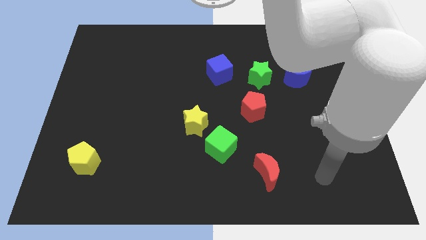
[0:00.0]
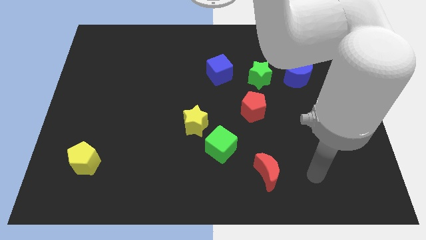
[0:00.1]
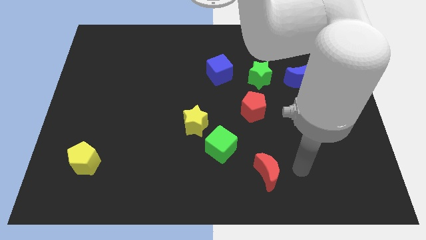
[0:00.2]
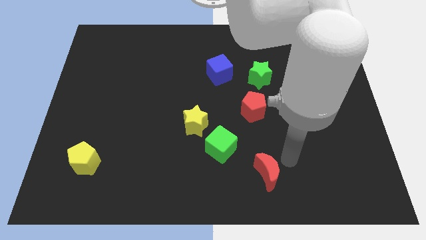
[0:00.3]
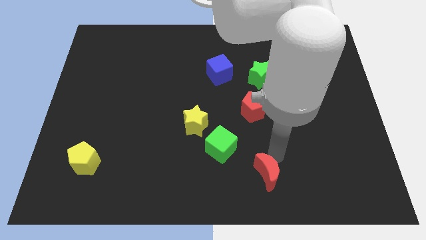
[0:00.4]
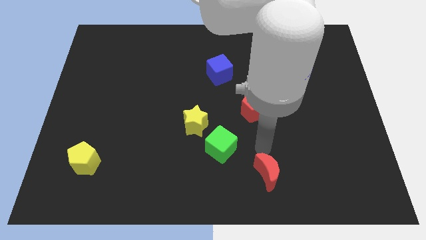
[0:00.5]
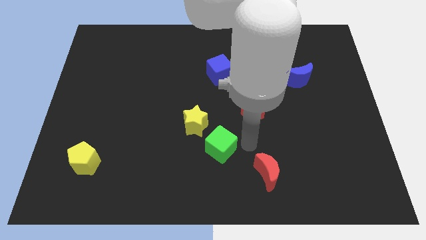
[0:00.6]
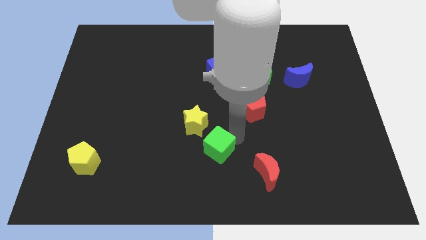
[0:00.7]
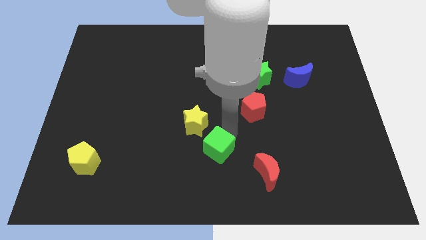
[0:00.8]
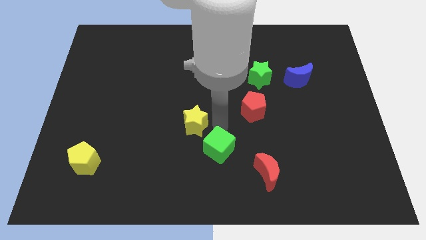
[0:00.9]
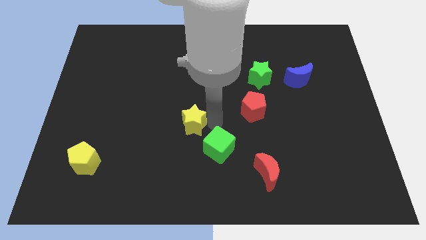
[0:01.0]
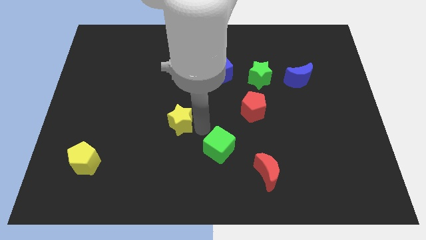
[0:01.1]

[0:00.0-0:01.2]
move the green cube away from the yellow star

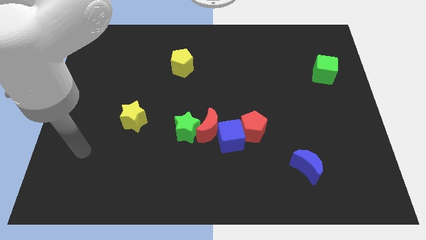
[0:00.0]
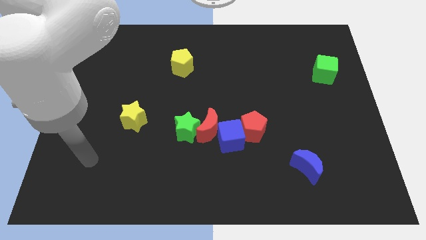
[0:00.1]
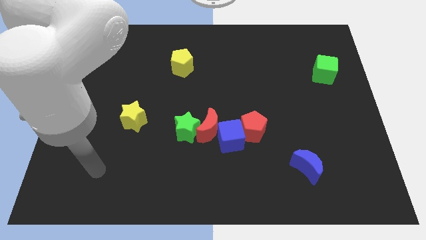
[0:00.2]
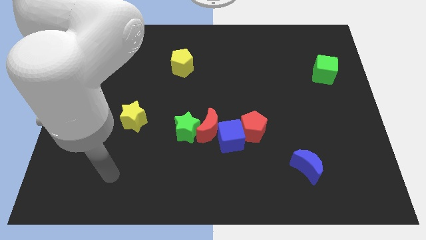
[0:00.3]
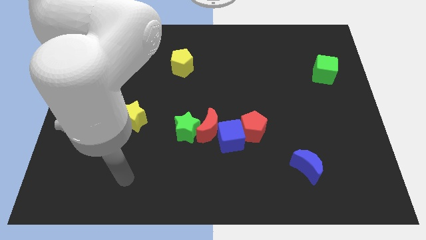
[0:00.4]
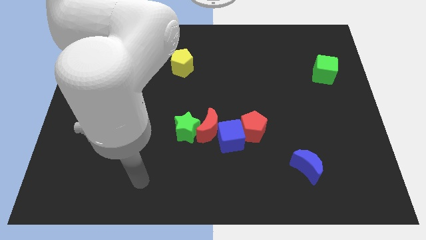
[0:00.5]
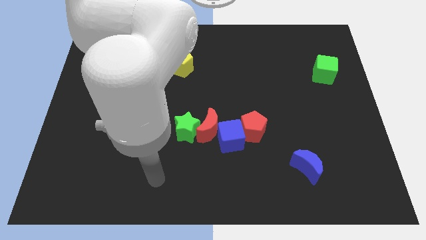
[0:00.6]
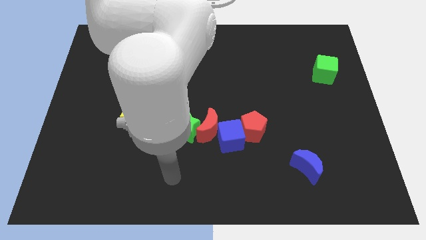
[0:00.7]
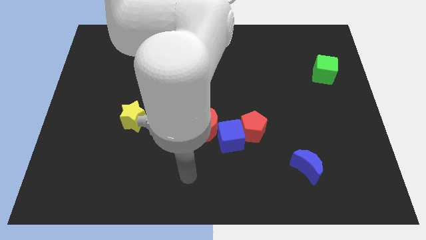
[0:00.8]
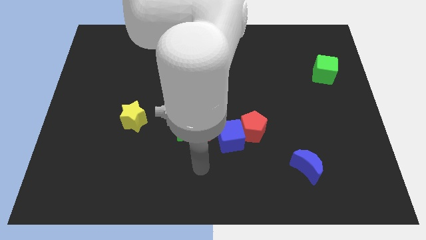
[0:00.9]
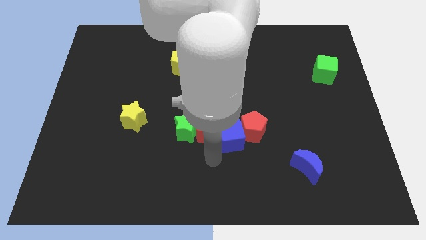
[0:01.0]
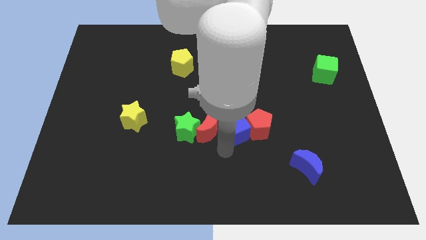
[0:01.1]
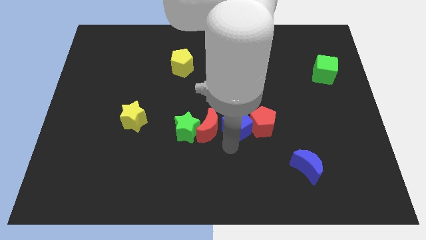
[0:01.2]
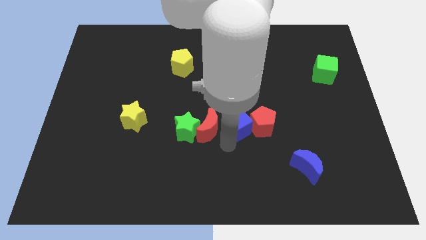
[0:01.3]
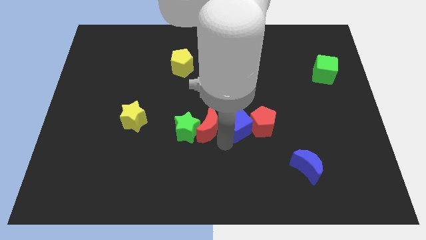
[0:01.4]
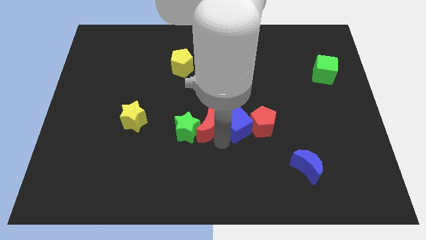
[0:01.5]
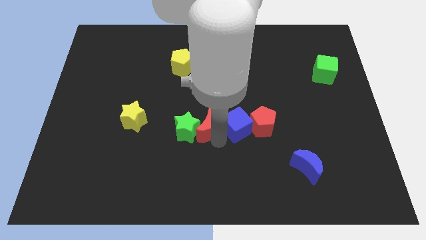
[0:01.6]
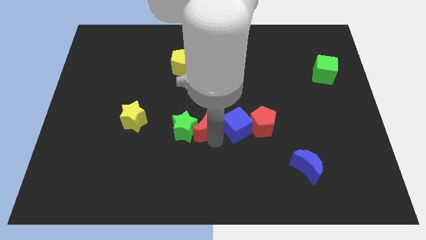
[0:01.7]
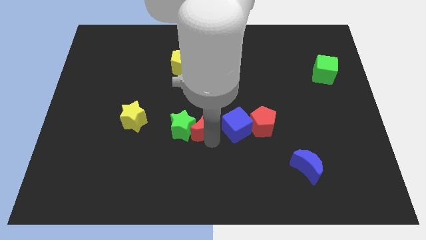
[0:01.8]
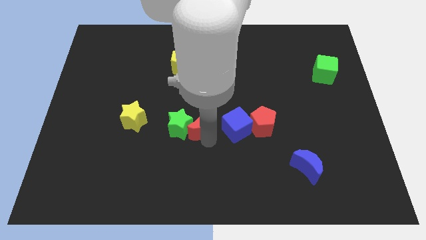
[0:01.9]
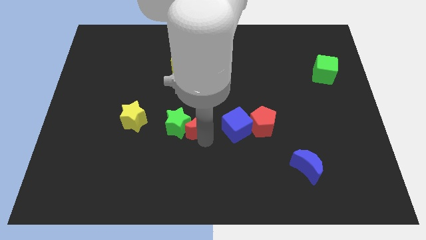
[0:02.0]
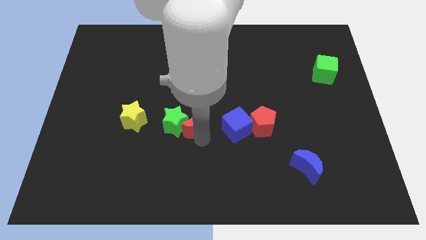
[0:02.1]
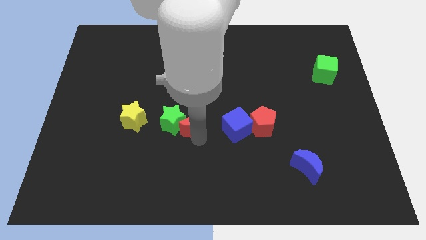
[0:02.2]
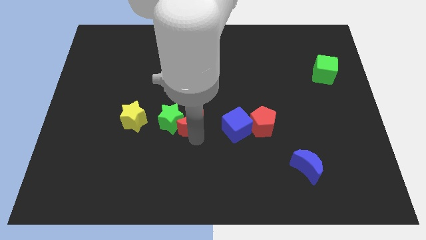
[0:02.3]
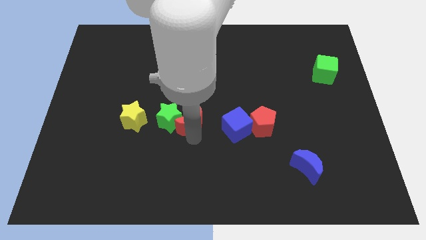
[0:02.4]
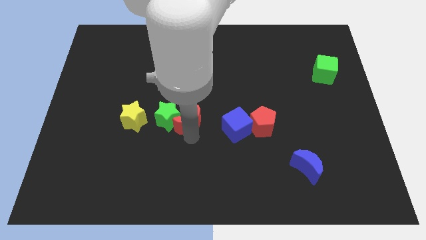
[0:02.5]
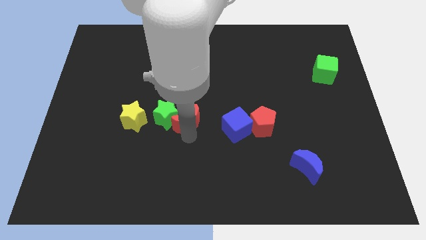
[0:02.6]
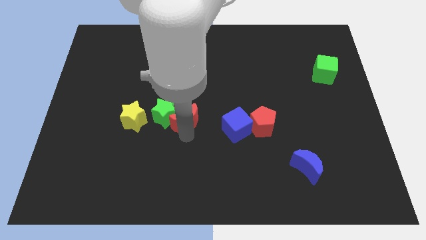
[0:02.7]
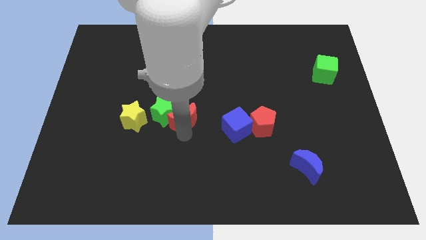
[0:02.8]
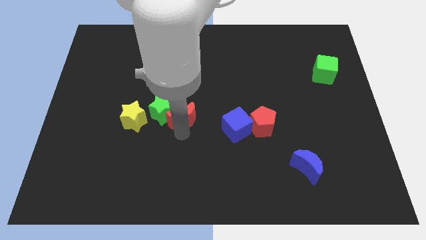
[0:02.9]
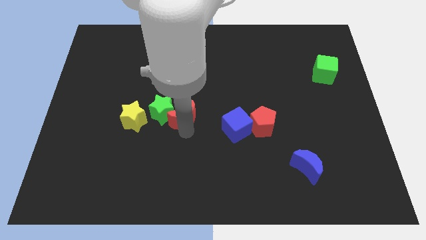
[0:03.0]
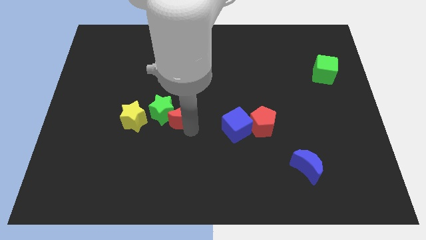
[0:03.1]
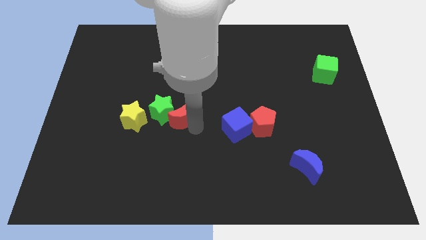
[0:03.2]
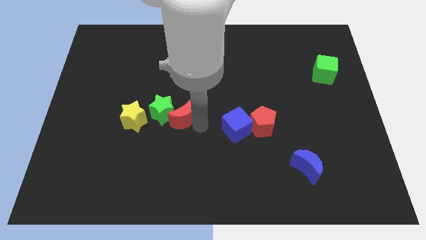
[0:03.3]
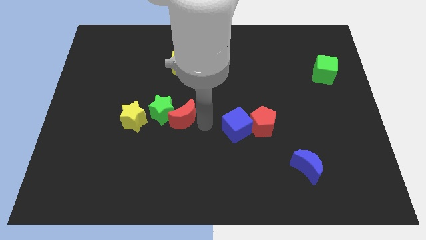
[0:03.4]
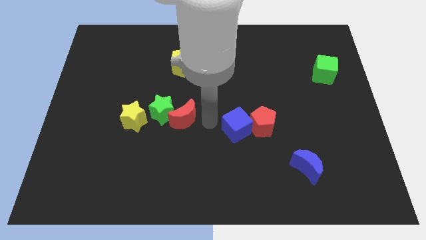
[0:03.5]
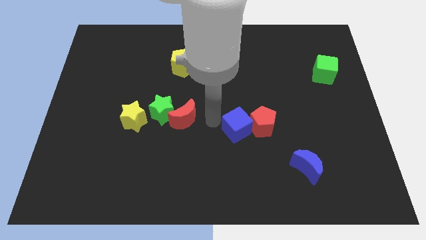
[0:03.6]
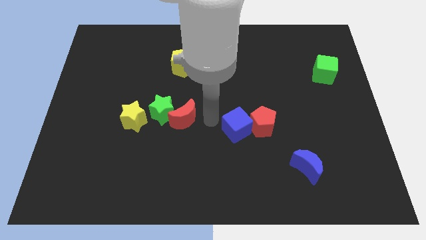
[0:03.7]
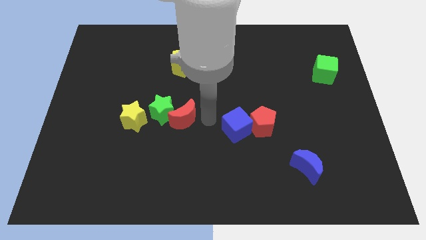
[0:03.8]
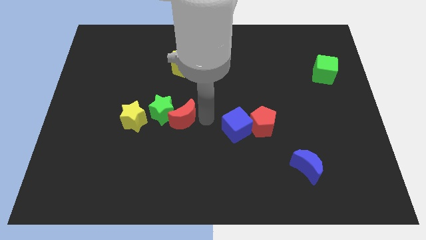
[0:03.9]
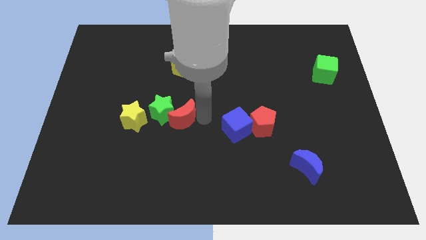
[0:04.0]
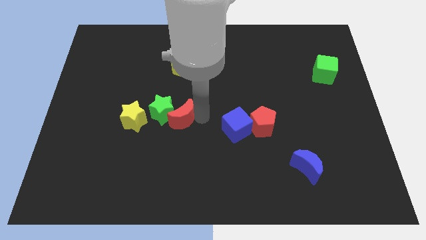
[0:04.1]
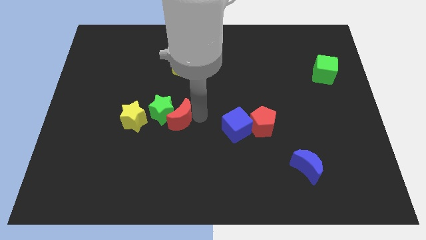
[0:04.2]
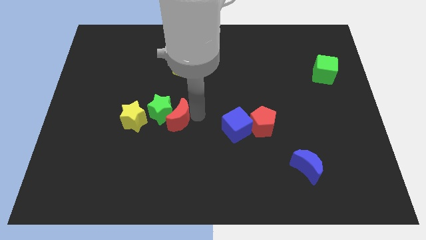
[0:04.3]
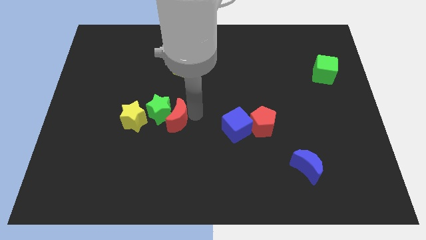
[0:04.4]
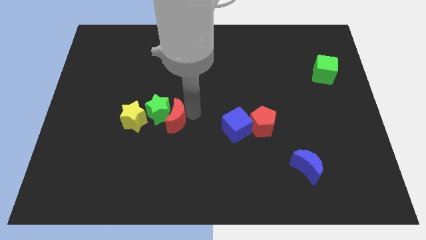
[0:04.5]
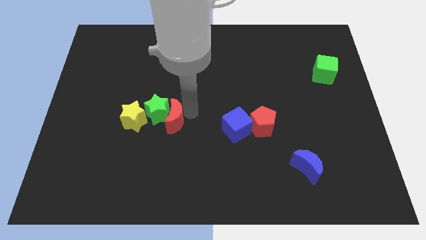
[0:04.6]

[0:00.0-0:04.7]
move the red moon away from the green star, blue cube, and red pentagon

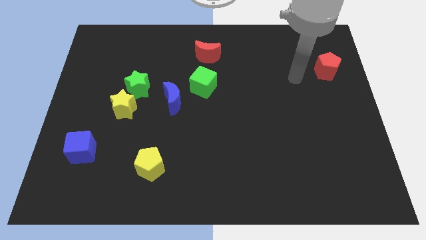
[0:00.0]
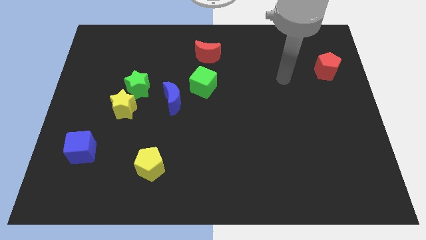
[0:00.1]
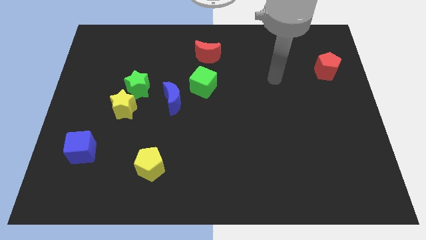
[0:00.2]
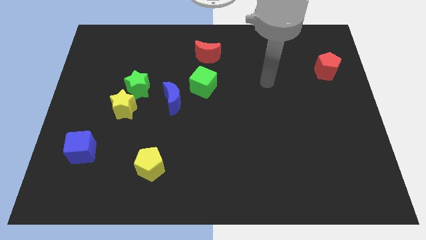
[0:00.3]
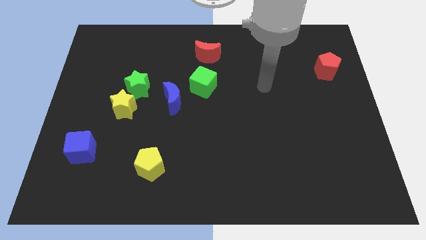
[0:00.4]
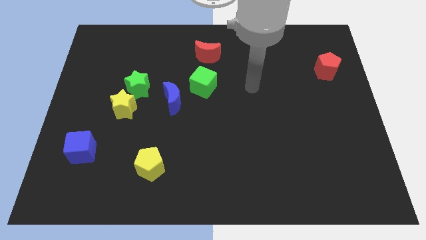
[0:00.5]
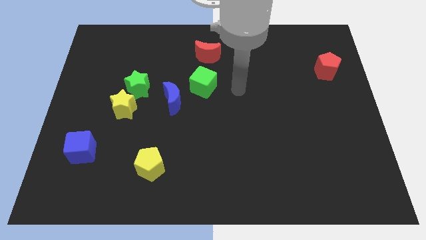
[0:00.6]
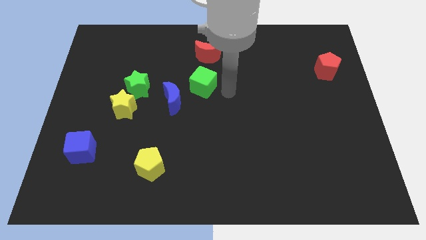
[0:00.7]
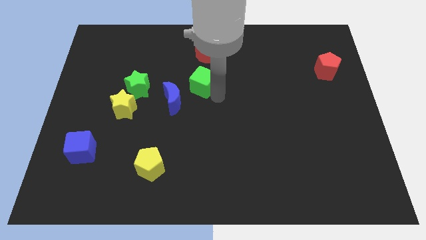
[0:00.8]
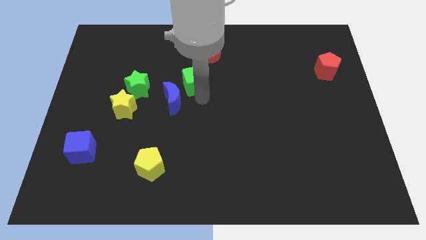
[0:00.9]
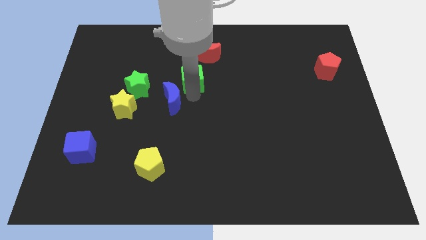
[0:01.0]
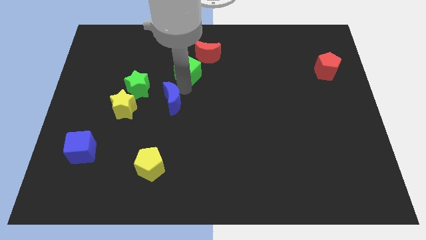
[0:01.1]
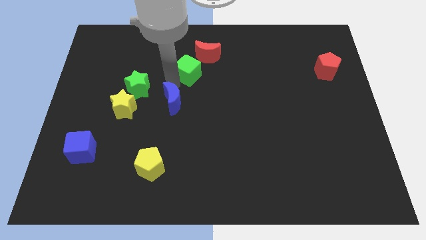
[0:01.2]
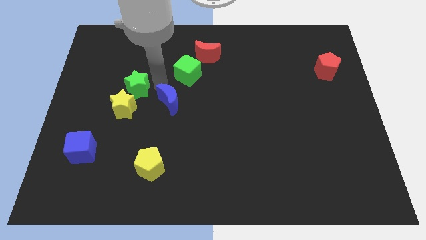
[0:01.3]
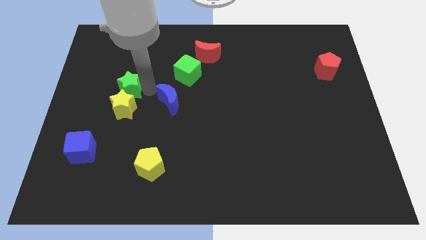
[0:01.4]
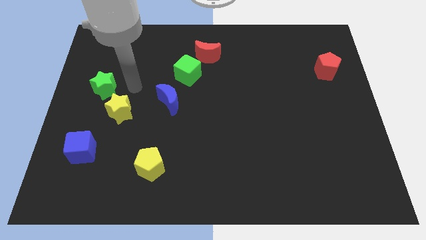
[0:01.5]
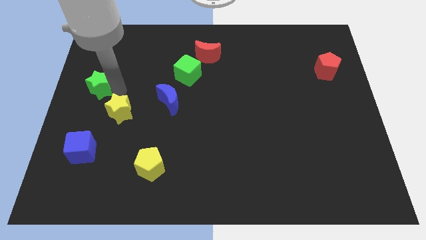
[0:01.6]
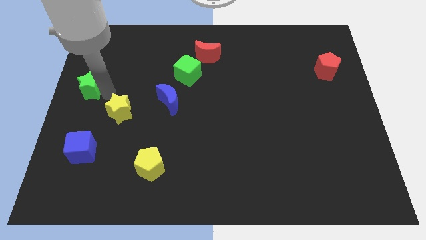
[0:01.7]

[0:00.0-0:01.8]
pull the yellow star apart from the green star

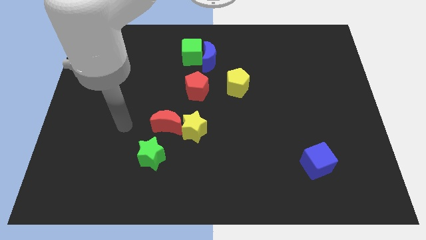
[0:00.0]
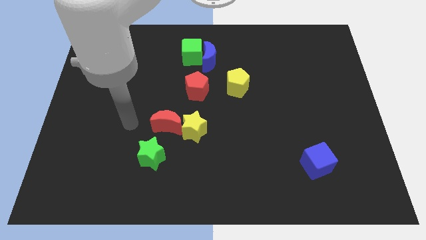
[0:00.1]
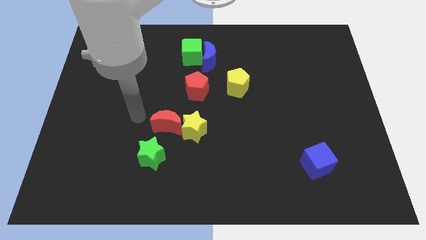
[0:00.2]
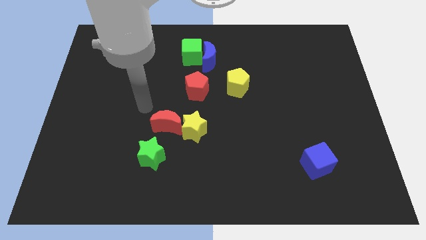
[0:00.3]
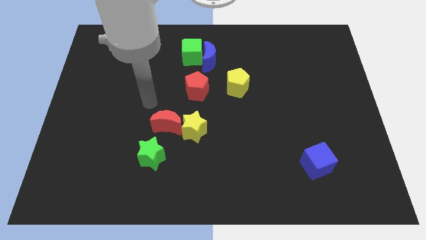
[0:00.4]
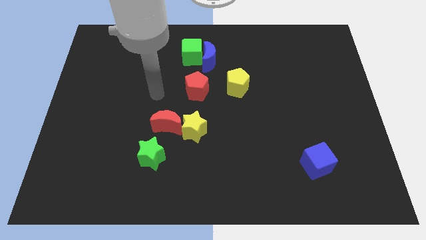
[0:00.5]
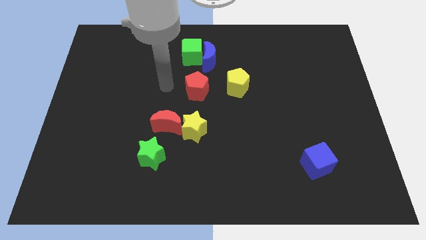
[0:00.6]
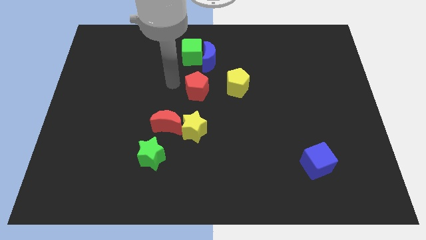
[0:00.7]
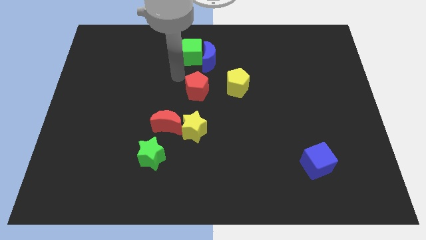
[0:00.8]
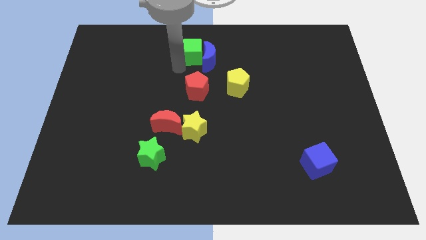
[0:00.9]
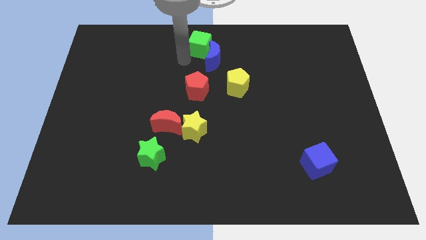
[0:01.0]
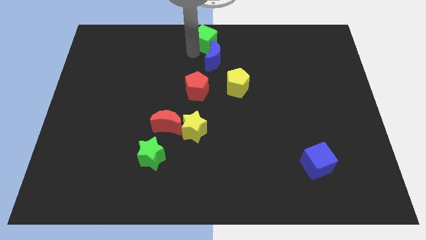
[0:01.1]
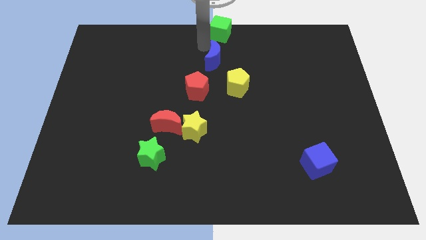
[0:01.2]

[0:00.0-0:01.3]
separate the blue moon from the green cube

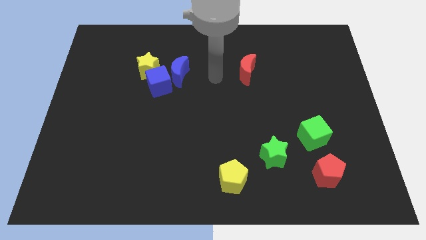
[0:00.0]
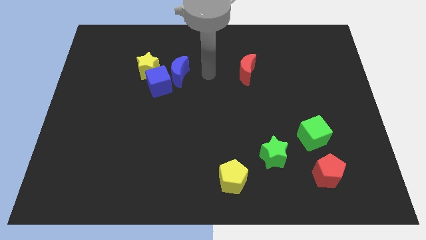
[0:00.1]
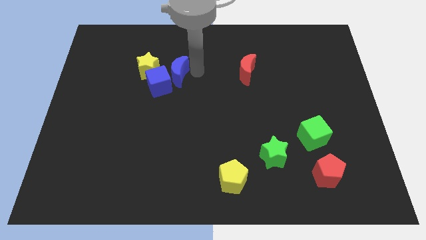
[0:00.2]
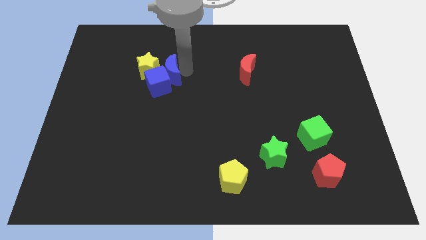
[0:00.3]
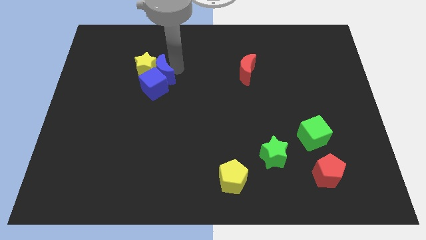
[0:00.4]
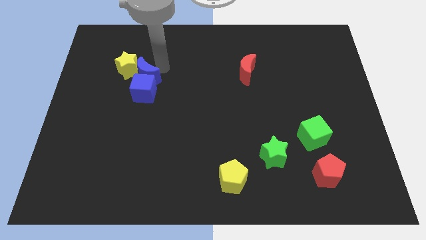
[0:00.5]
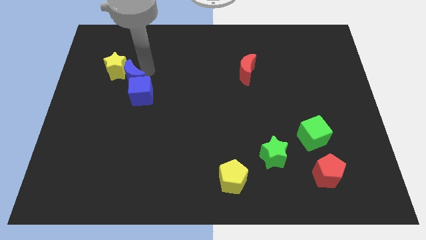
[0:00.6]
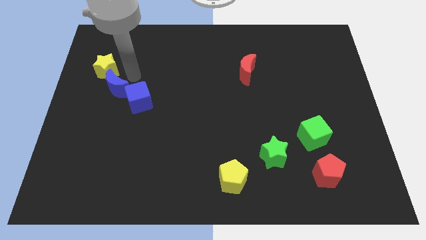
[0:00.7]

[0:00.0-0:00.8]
move the blue cube away from the blue moon and yellow star
